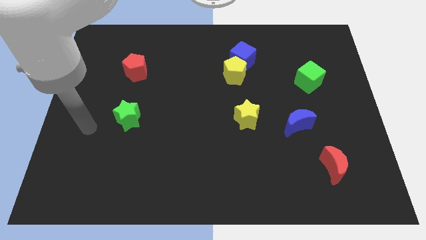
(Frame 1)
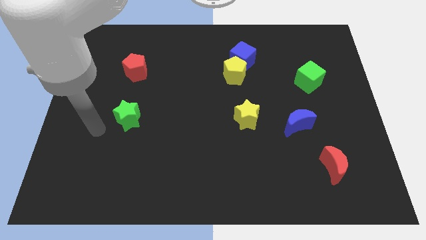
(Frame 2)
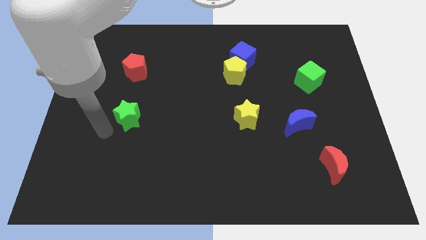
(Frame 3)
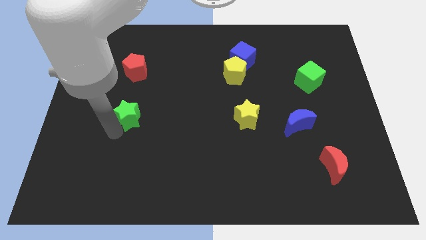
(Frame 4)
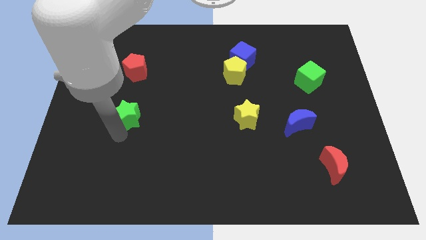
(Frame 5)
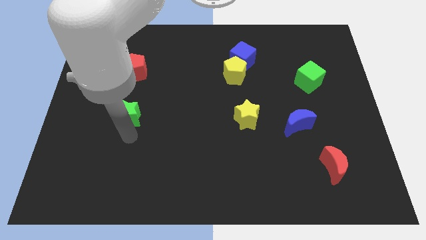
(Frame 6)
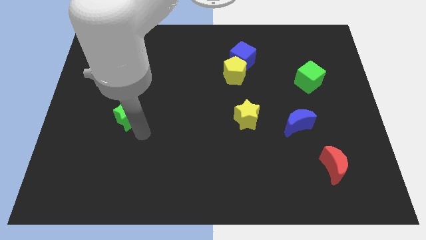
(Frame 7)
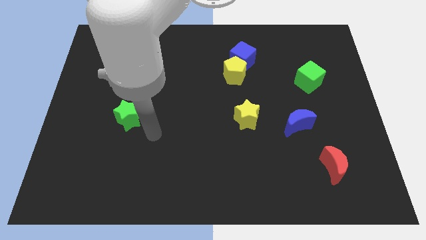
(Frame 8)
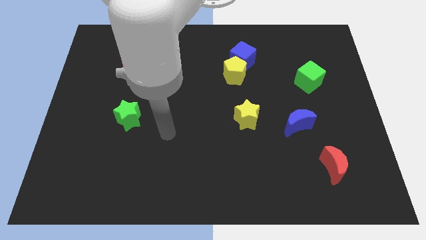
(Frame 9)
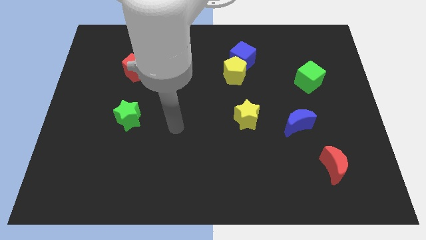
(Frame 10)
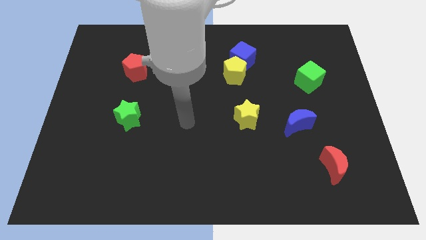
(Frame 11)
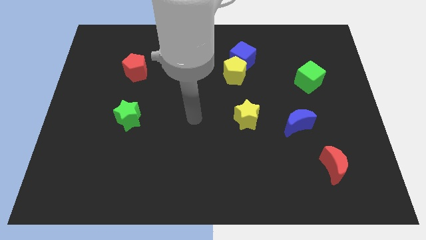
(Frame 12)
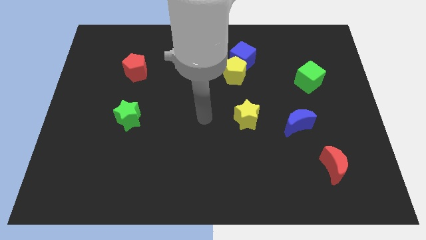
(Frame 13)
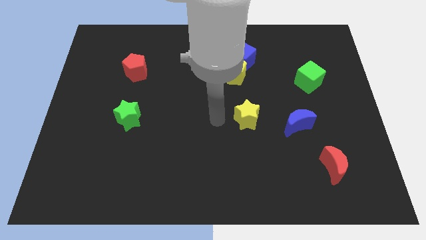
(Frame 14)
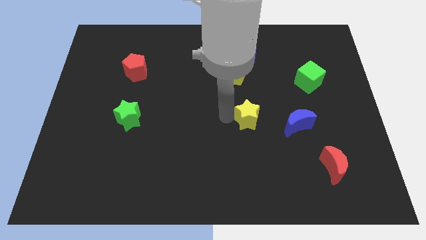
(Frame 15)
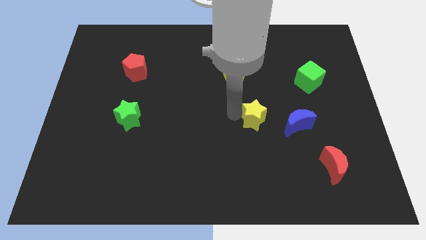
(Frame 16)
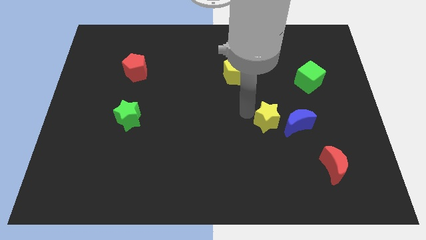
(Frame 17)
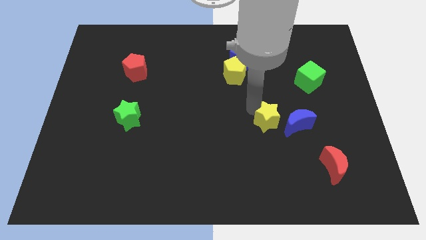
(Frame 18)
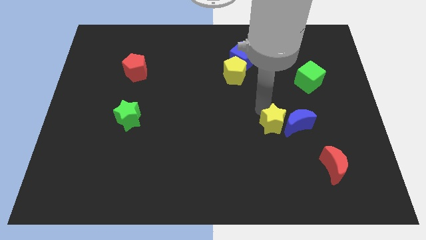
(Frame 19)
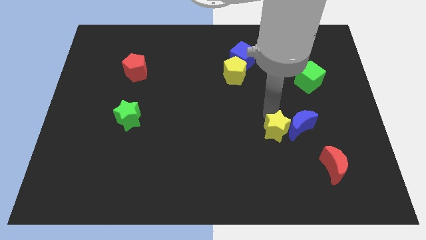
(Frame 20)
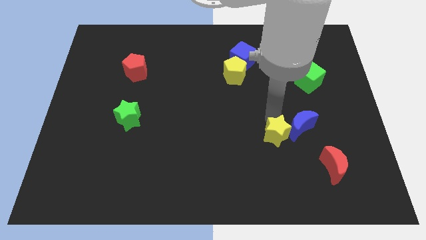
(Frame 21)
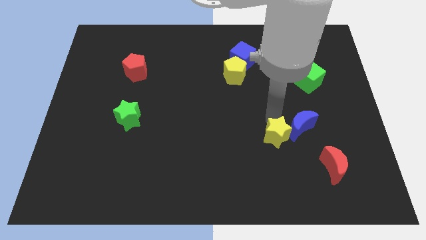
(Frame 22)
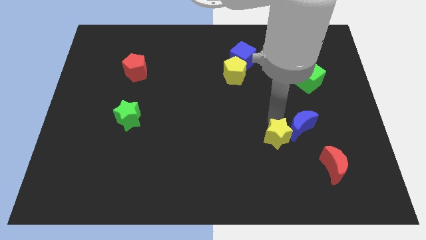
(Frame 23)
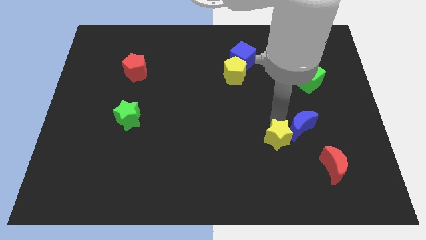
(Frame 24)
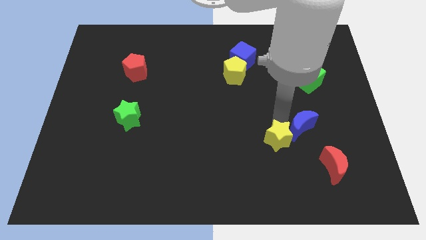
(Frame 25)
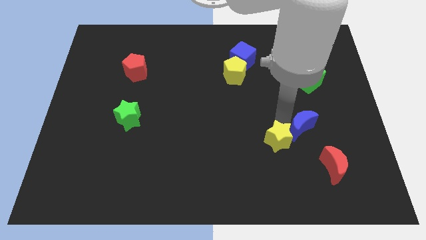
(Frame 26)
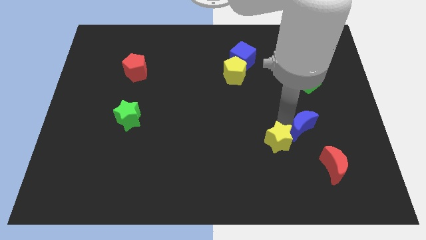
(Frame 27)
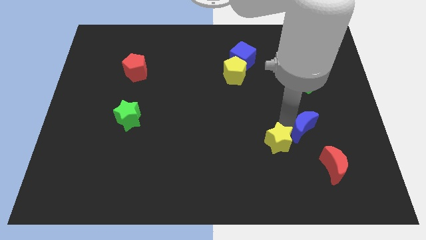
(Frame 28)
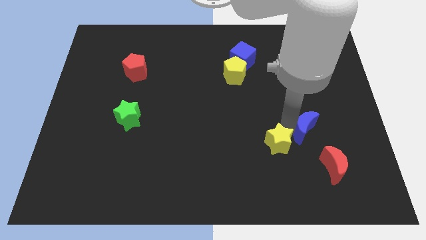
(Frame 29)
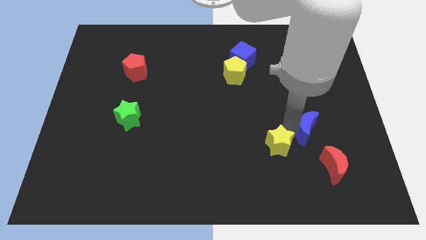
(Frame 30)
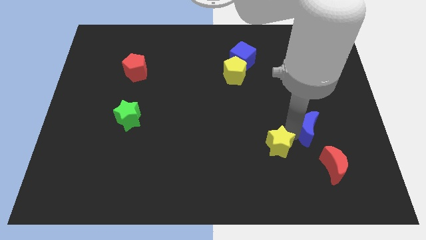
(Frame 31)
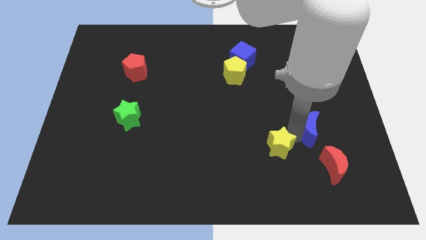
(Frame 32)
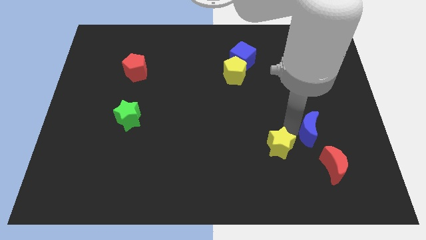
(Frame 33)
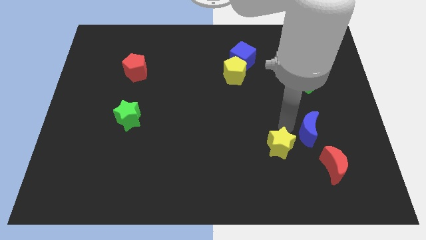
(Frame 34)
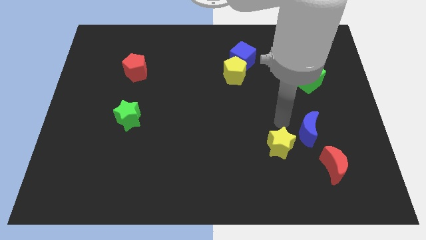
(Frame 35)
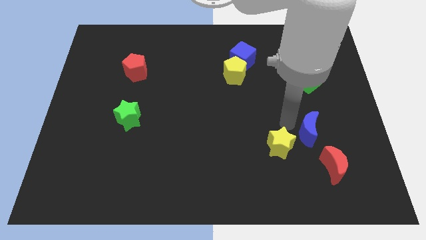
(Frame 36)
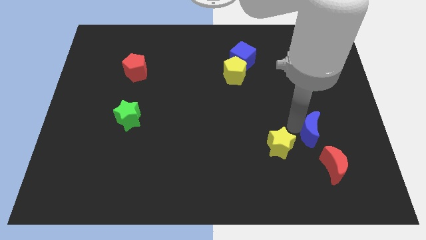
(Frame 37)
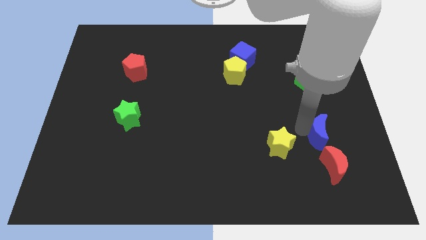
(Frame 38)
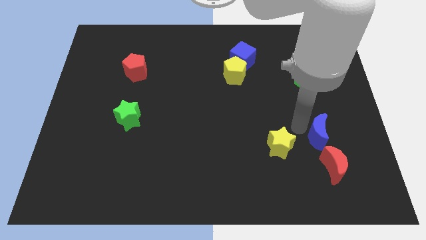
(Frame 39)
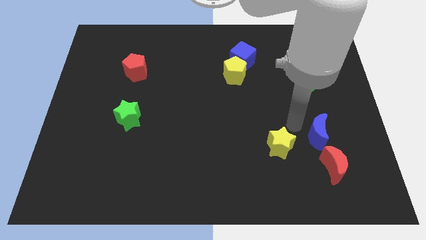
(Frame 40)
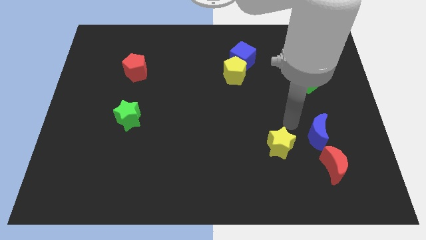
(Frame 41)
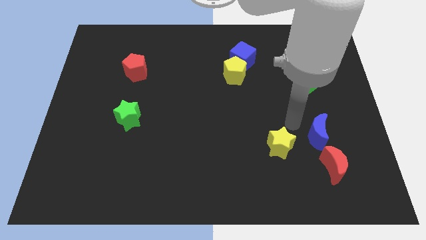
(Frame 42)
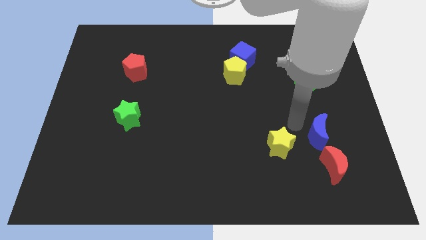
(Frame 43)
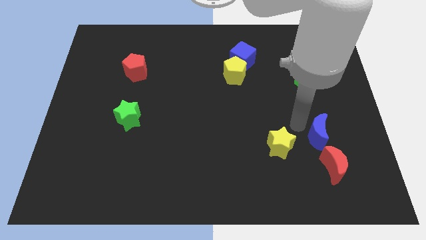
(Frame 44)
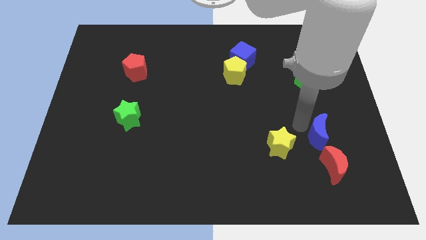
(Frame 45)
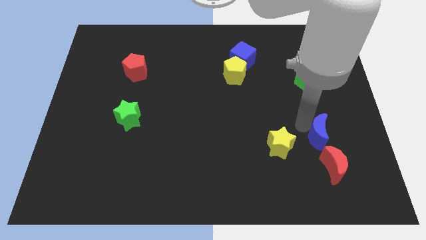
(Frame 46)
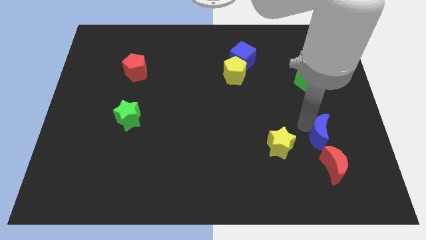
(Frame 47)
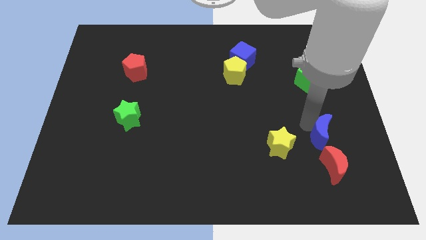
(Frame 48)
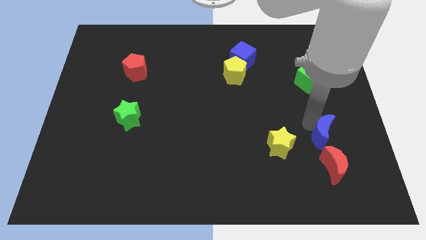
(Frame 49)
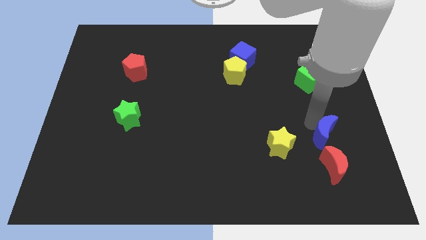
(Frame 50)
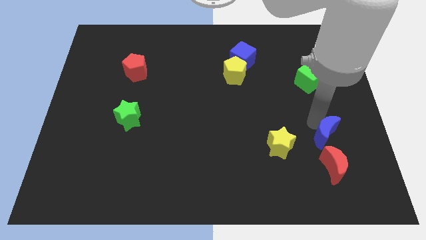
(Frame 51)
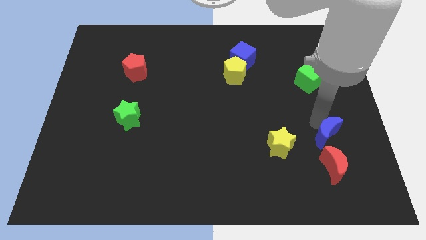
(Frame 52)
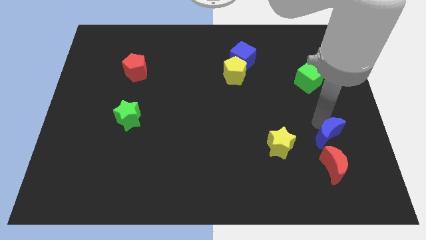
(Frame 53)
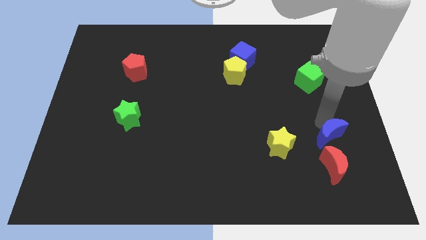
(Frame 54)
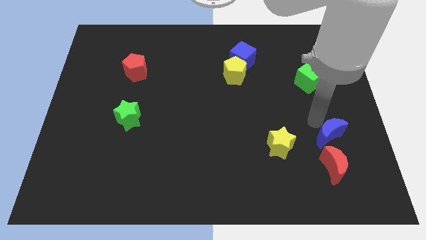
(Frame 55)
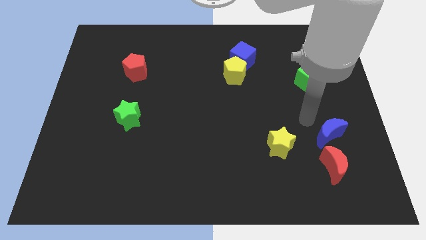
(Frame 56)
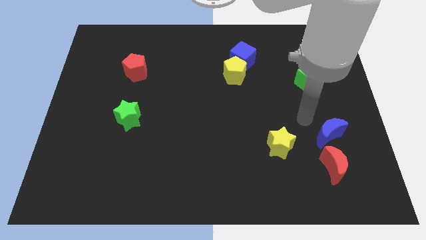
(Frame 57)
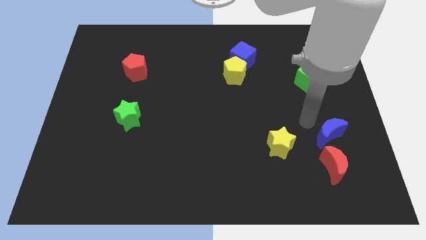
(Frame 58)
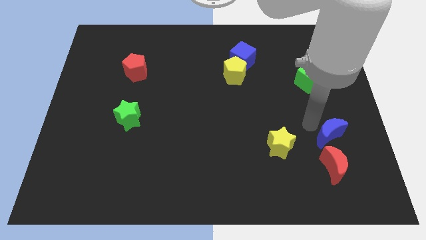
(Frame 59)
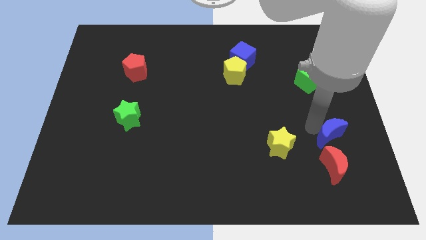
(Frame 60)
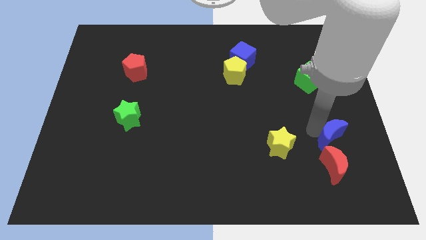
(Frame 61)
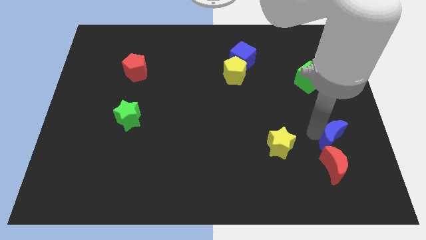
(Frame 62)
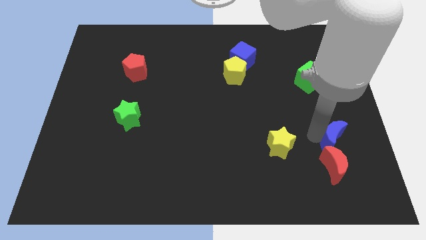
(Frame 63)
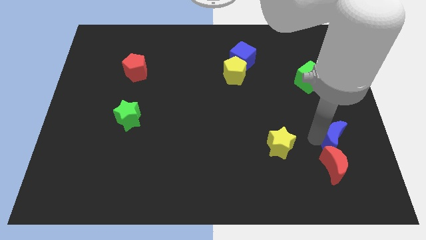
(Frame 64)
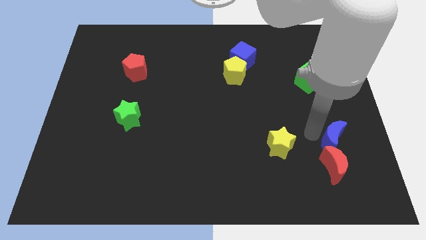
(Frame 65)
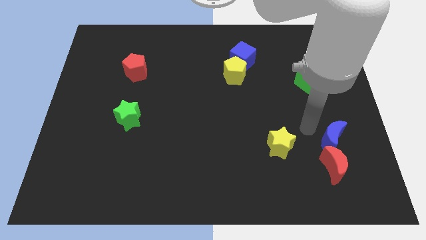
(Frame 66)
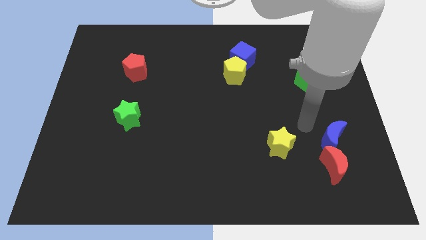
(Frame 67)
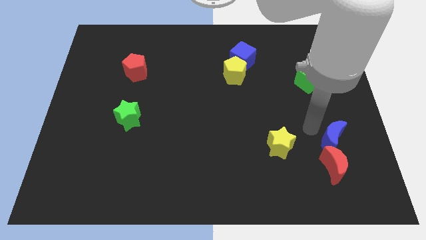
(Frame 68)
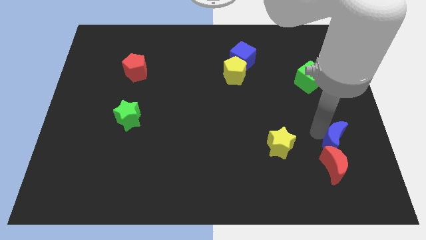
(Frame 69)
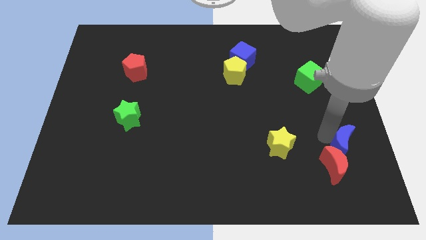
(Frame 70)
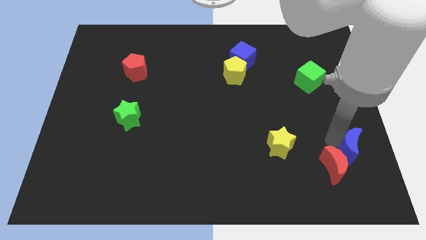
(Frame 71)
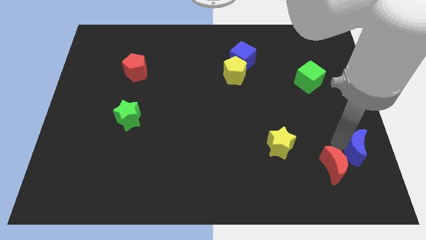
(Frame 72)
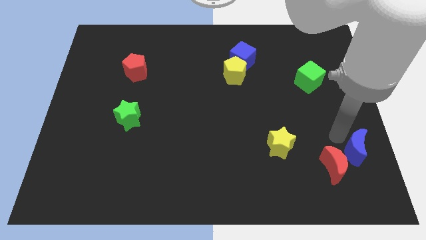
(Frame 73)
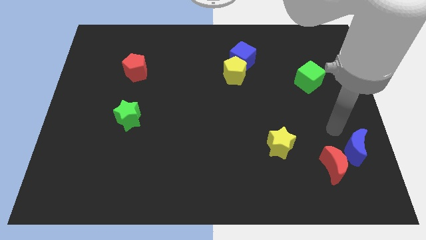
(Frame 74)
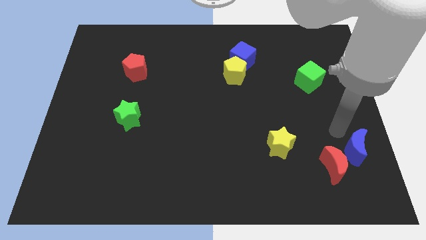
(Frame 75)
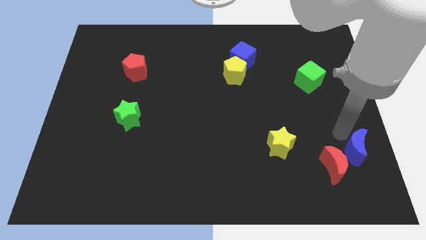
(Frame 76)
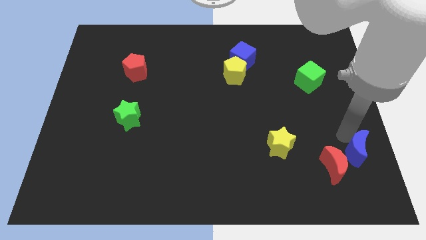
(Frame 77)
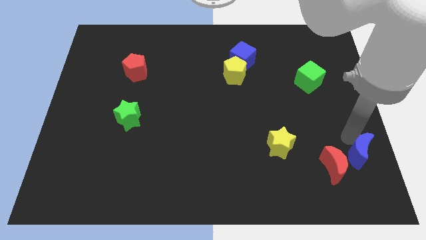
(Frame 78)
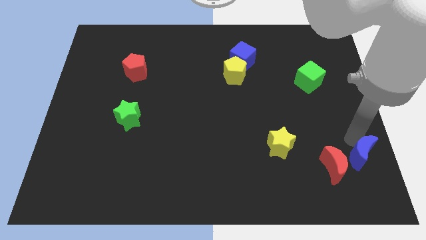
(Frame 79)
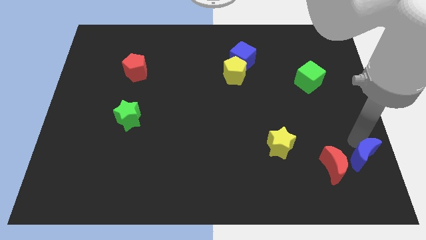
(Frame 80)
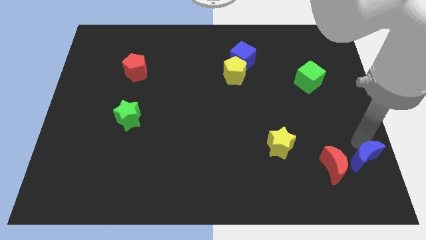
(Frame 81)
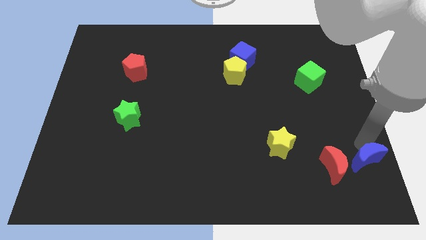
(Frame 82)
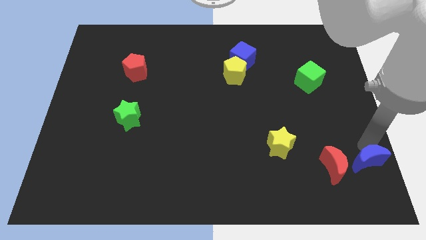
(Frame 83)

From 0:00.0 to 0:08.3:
put the blue moon to the bottom right corner
